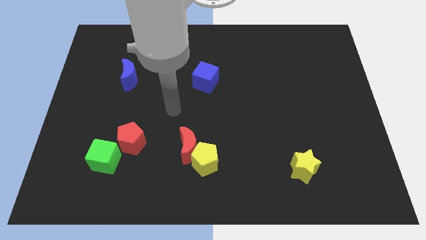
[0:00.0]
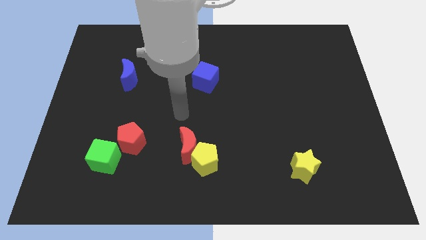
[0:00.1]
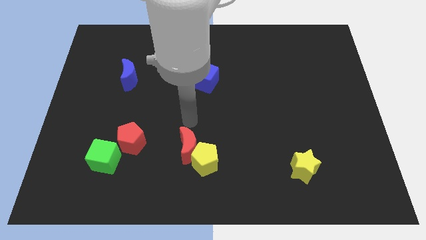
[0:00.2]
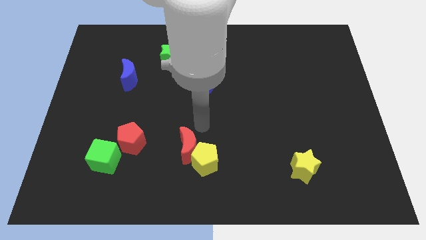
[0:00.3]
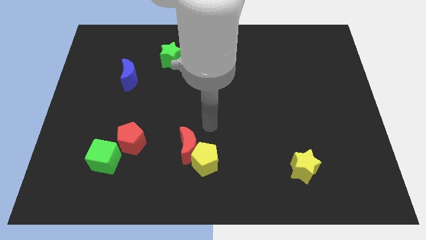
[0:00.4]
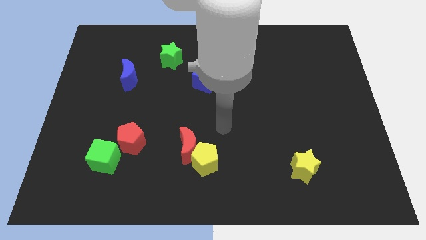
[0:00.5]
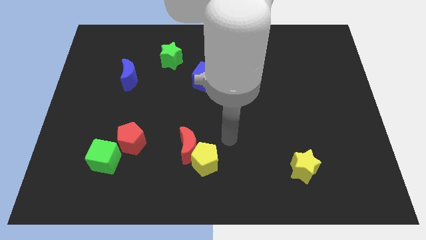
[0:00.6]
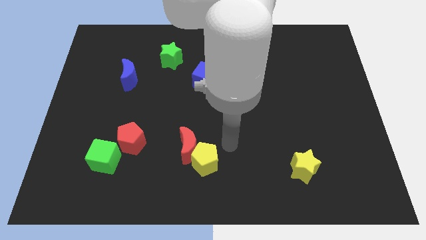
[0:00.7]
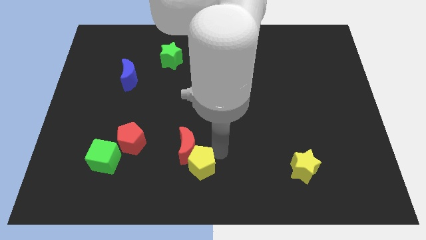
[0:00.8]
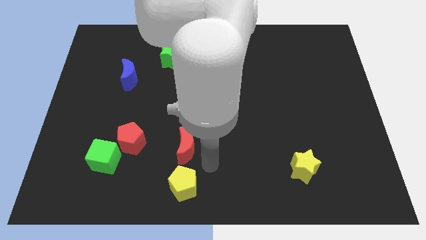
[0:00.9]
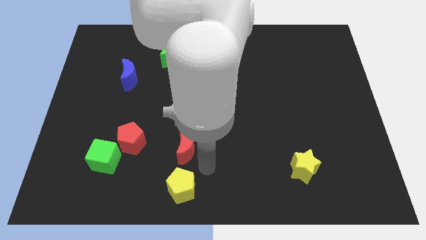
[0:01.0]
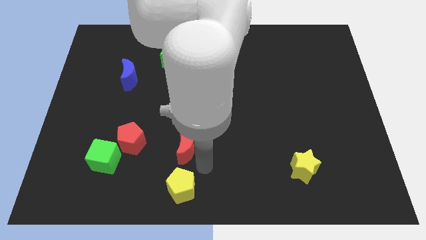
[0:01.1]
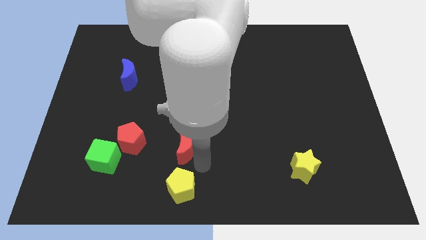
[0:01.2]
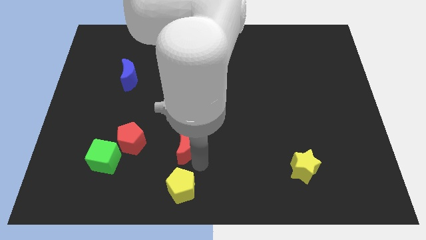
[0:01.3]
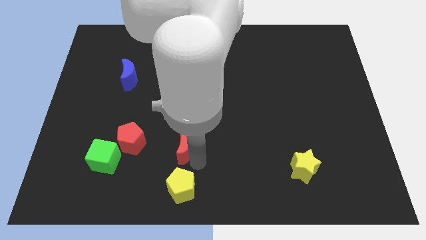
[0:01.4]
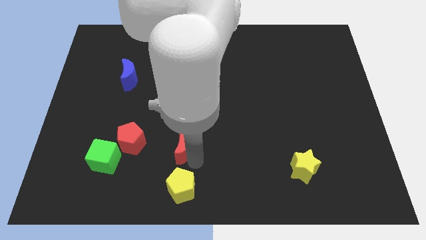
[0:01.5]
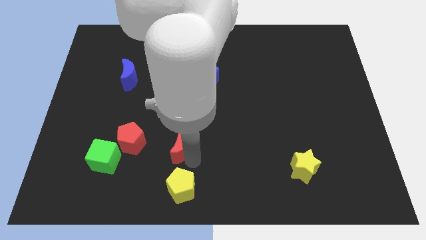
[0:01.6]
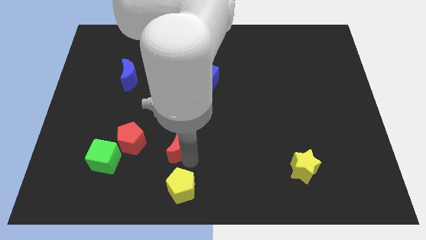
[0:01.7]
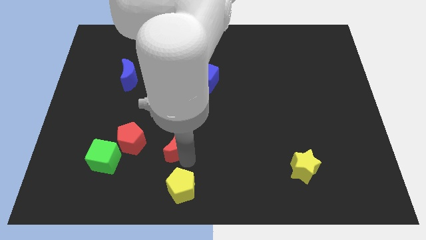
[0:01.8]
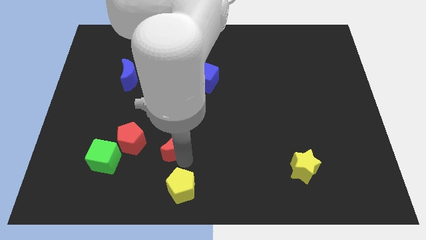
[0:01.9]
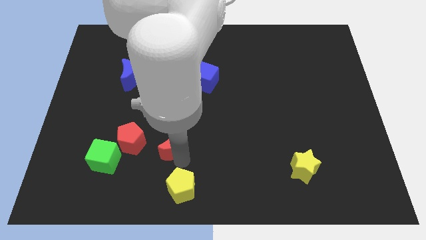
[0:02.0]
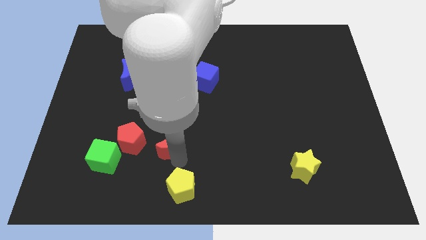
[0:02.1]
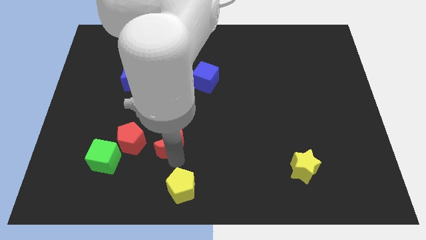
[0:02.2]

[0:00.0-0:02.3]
pull the red moon apart from the yellow pentagon

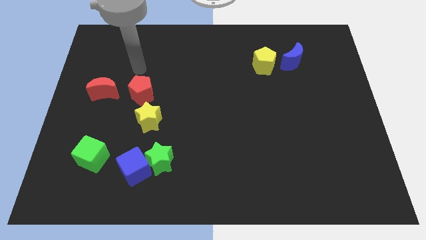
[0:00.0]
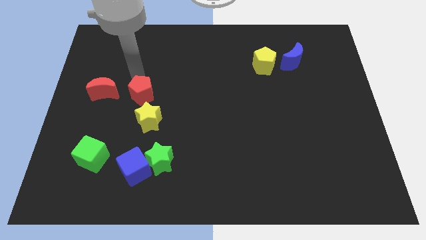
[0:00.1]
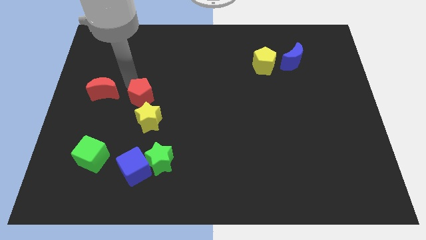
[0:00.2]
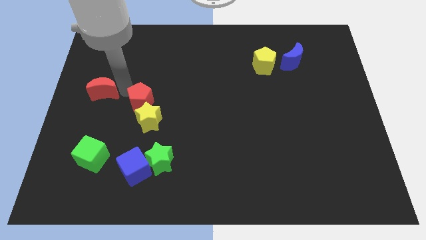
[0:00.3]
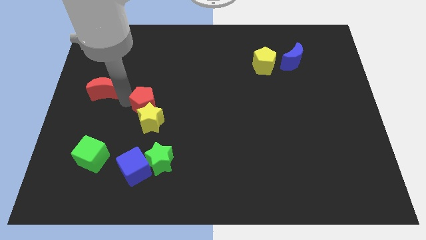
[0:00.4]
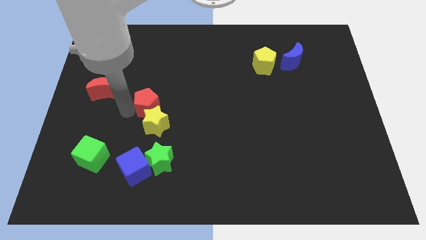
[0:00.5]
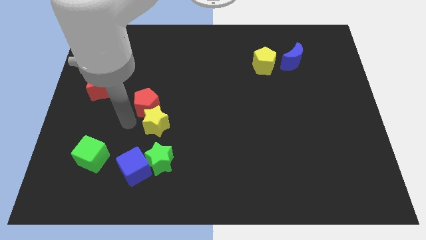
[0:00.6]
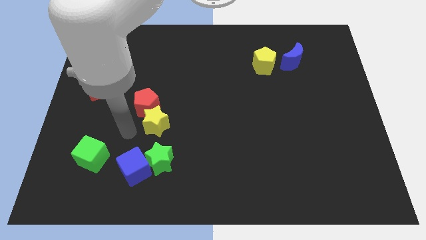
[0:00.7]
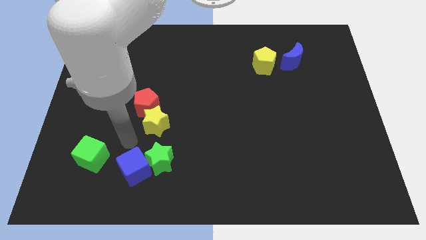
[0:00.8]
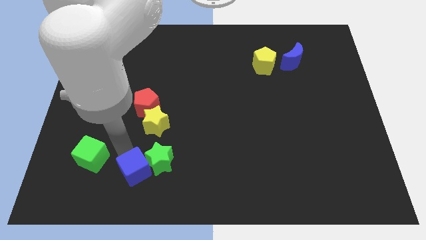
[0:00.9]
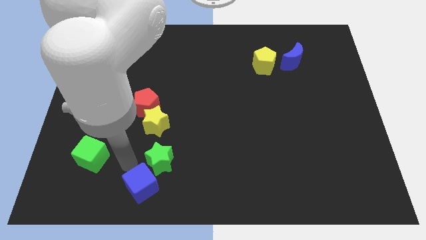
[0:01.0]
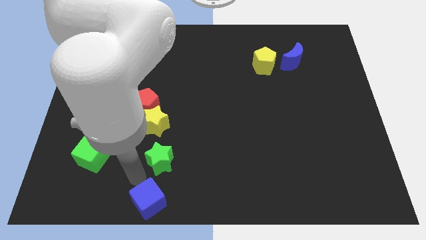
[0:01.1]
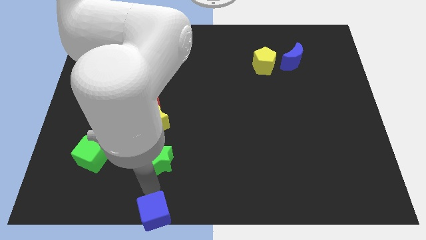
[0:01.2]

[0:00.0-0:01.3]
pull the green star apart from the blue cube

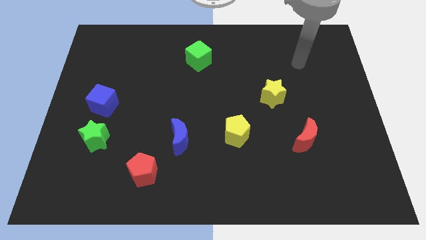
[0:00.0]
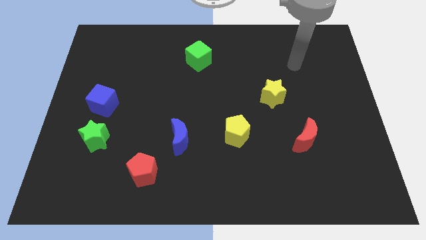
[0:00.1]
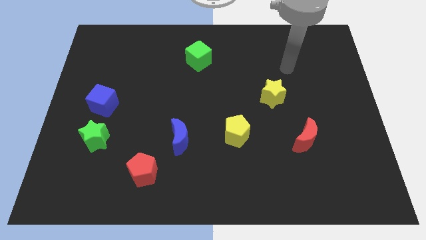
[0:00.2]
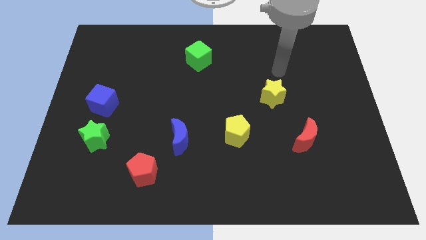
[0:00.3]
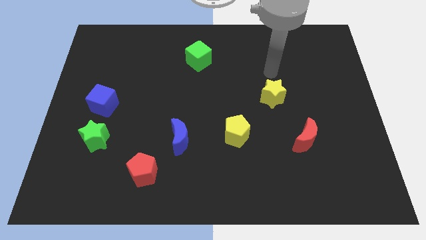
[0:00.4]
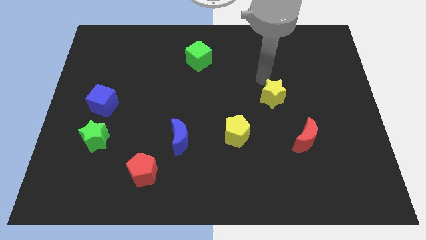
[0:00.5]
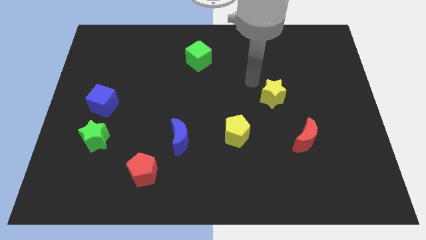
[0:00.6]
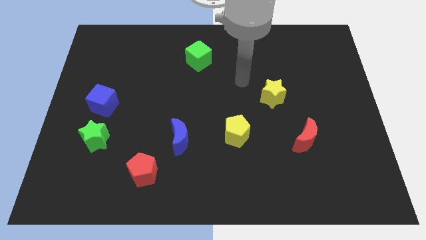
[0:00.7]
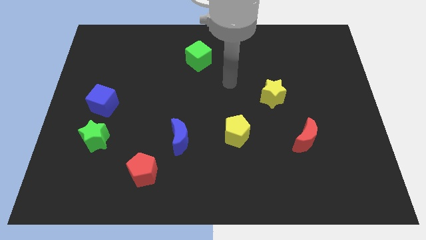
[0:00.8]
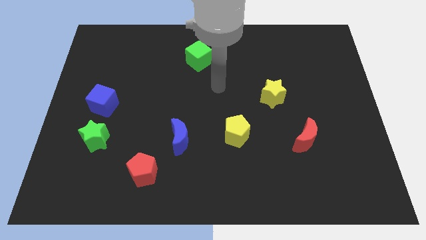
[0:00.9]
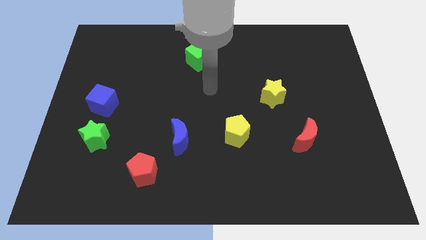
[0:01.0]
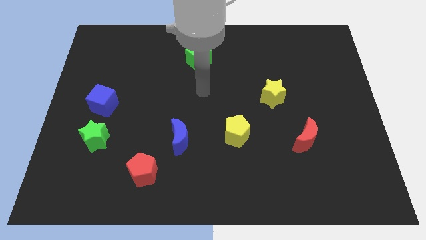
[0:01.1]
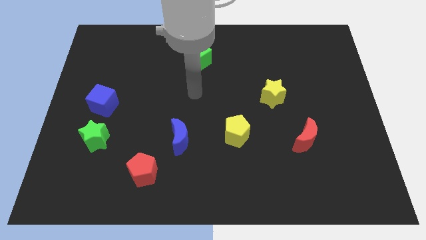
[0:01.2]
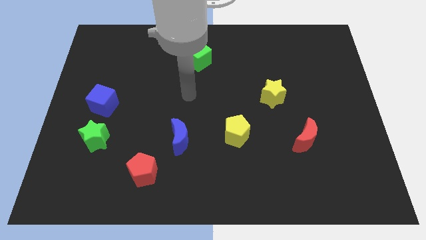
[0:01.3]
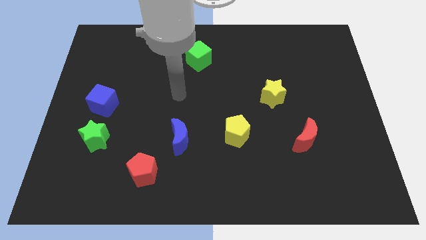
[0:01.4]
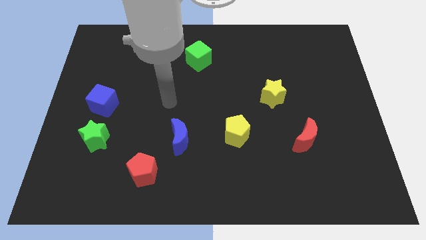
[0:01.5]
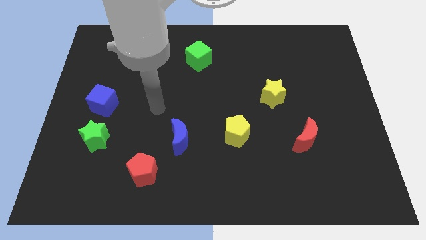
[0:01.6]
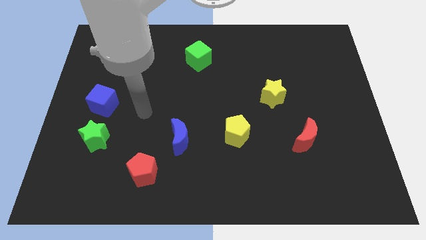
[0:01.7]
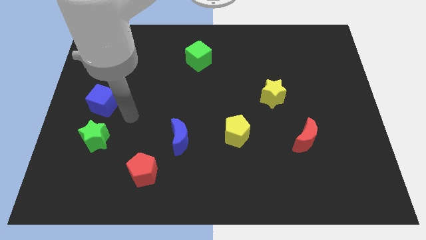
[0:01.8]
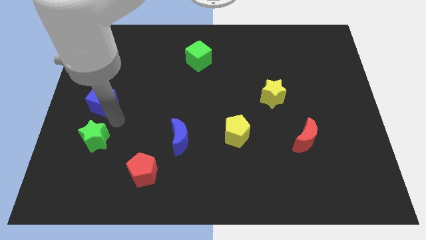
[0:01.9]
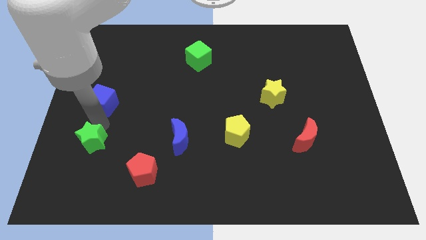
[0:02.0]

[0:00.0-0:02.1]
pull the blue cube apart from the green star

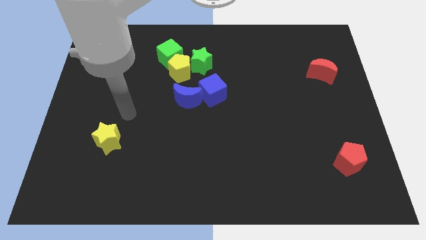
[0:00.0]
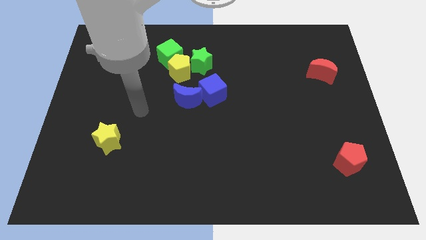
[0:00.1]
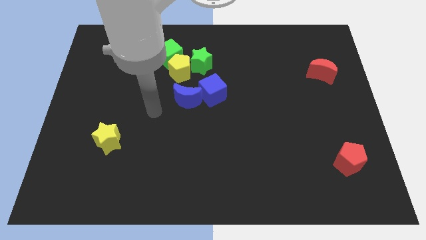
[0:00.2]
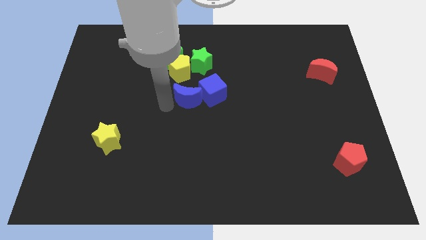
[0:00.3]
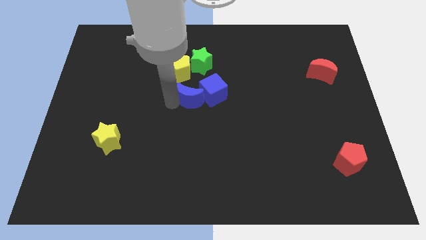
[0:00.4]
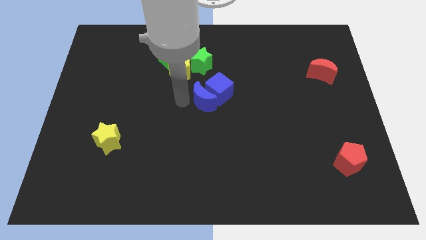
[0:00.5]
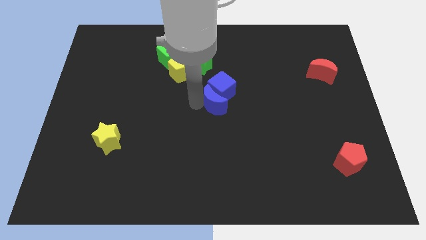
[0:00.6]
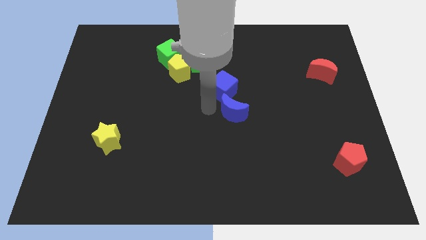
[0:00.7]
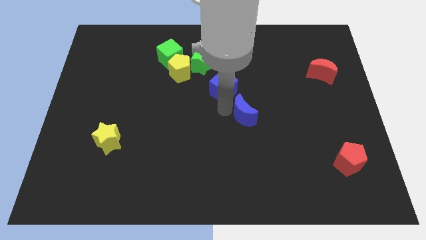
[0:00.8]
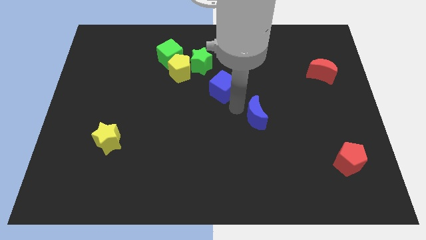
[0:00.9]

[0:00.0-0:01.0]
pull the blue cube apart from the blue moon

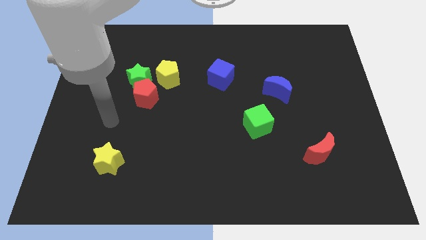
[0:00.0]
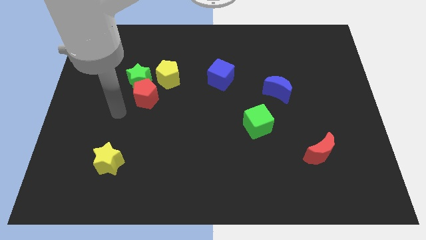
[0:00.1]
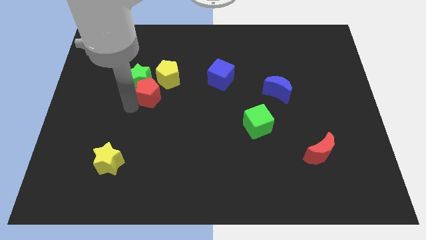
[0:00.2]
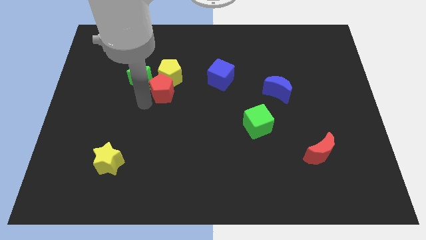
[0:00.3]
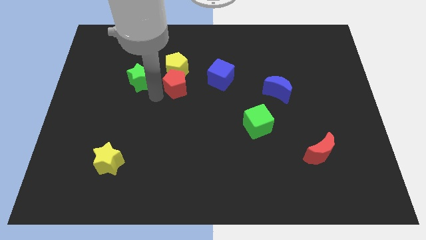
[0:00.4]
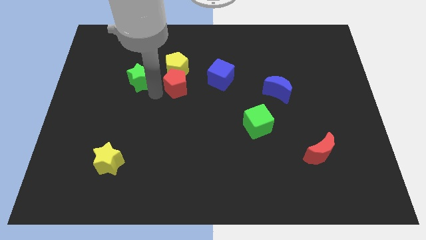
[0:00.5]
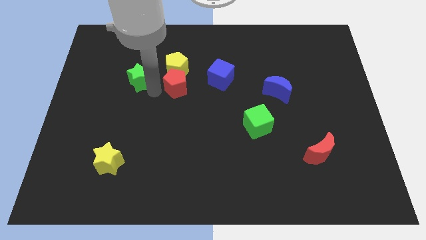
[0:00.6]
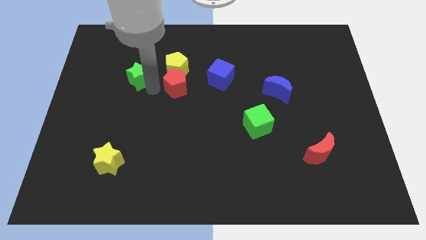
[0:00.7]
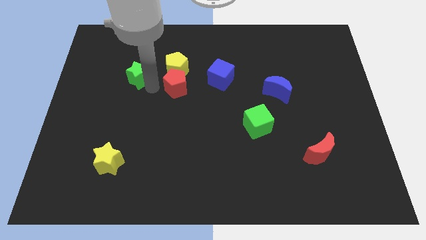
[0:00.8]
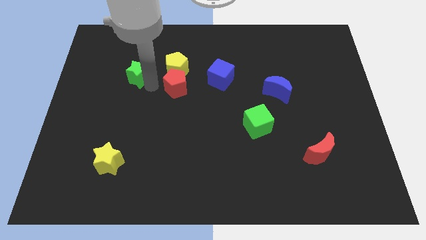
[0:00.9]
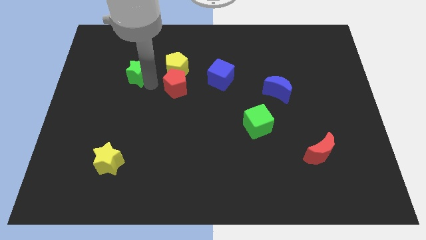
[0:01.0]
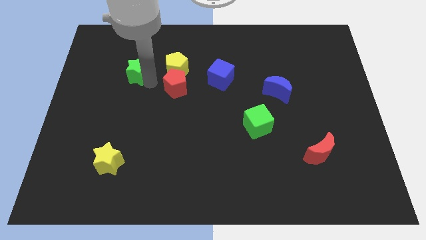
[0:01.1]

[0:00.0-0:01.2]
separate the green star from the red pentagon and yellow pentagon

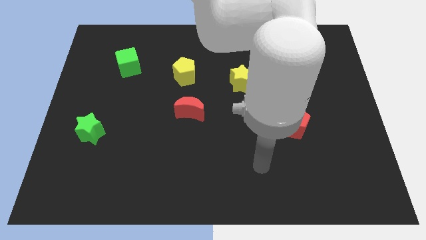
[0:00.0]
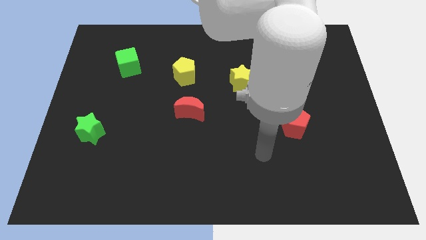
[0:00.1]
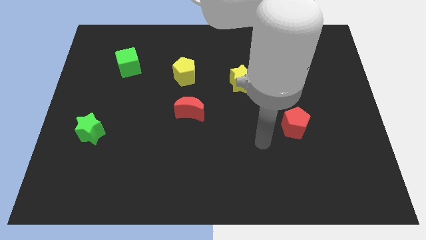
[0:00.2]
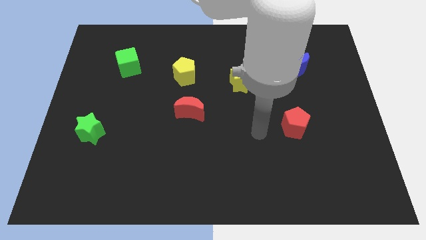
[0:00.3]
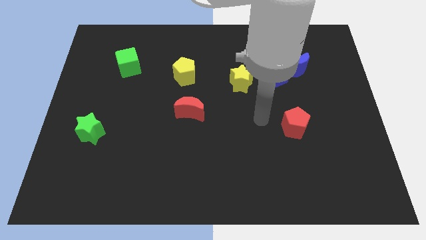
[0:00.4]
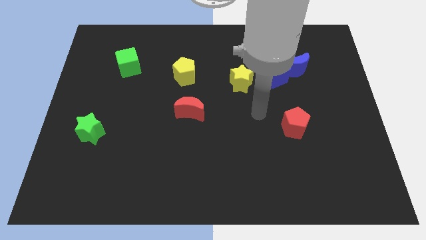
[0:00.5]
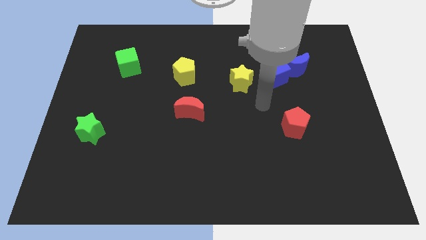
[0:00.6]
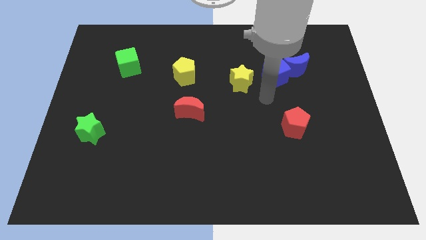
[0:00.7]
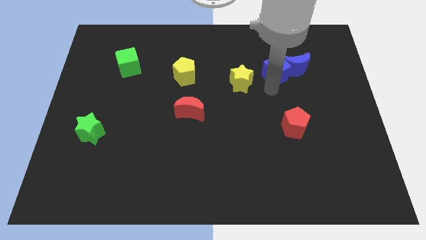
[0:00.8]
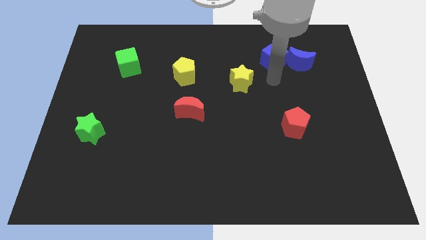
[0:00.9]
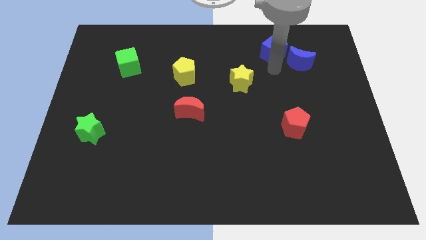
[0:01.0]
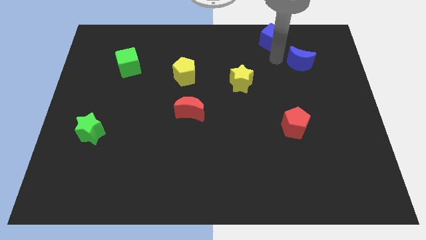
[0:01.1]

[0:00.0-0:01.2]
pull the blue moon apart from the blue cube

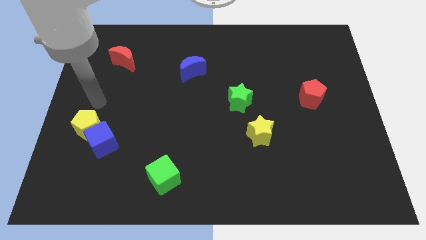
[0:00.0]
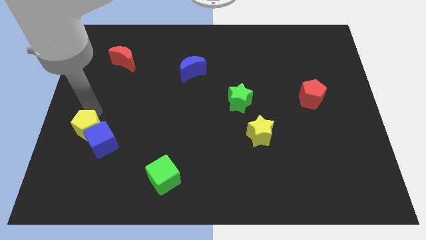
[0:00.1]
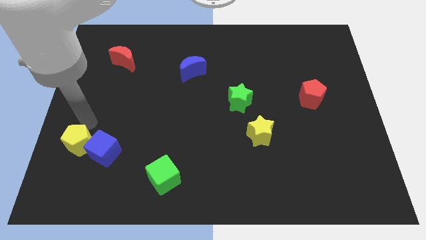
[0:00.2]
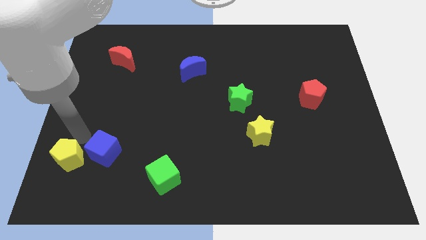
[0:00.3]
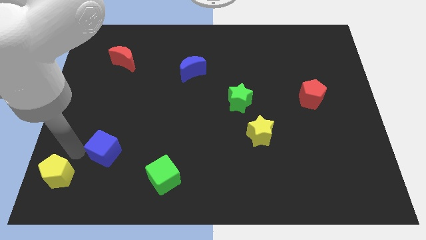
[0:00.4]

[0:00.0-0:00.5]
pull the blue cube apart from the yellow pentagon
